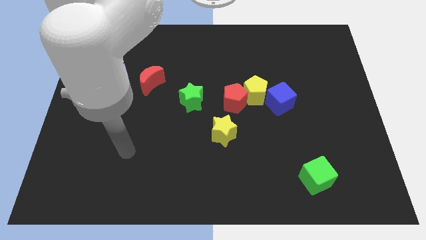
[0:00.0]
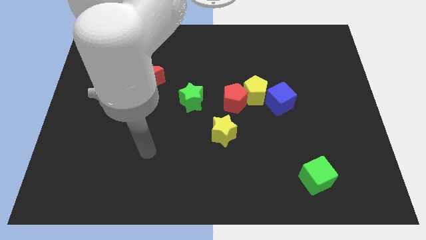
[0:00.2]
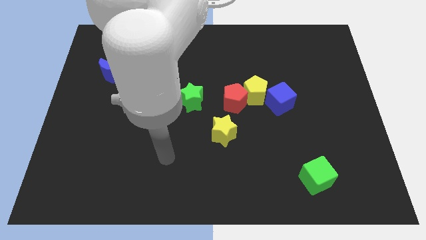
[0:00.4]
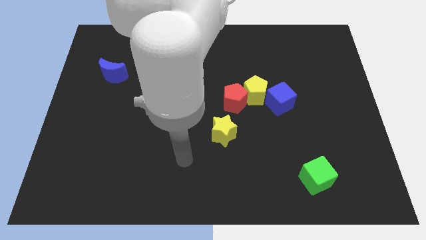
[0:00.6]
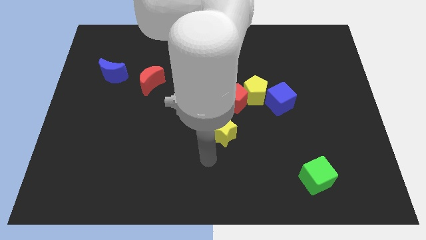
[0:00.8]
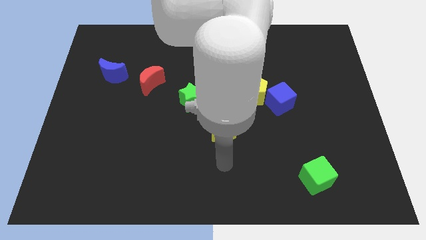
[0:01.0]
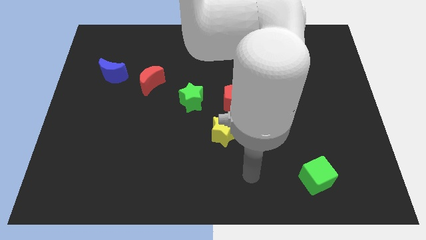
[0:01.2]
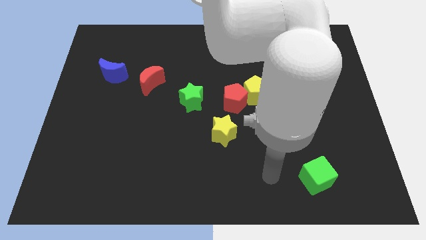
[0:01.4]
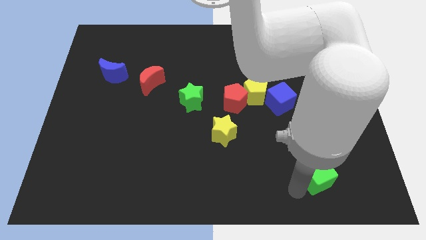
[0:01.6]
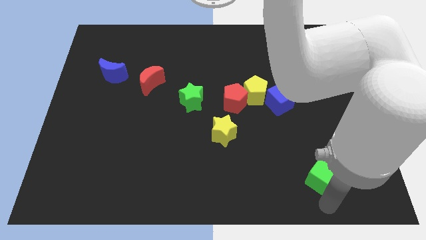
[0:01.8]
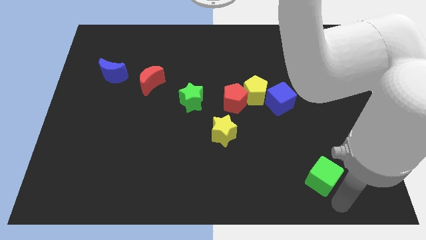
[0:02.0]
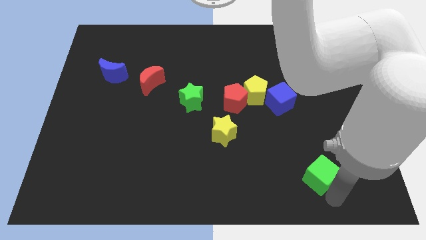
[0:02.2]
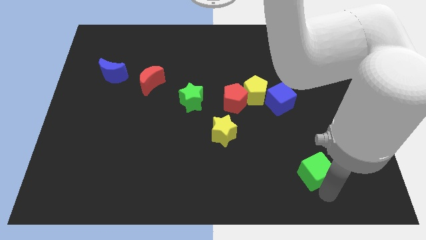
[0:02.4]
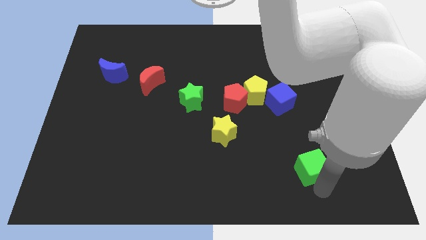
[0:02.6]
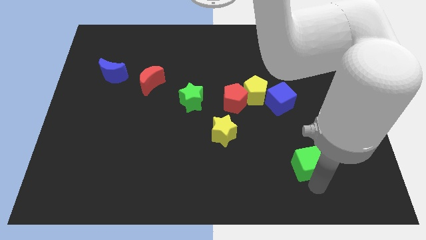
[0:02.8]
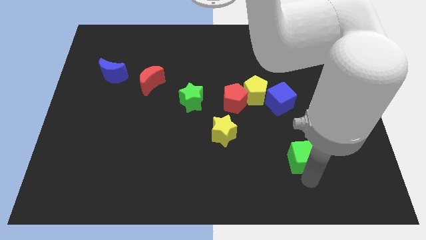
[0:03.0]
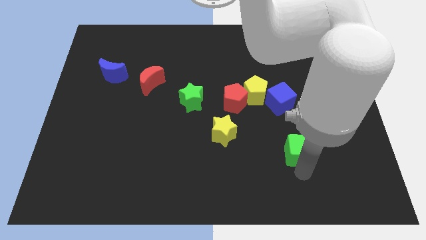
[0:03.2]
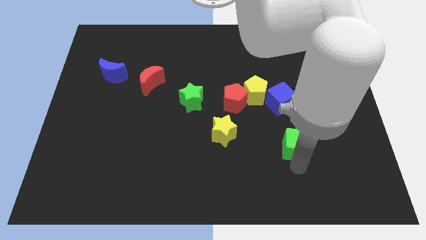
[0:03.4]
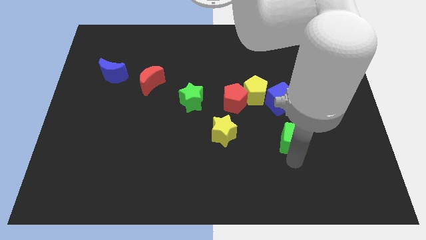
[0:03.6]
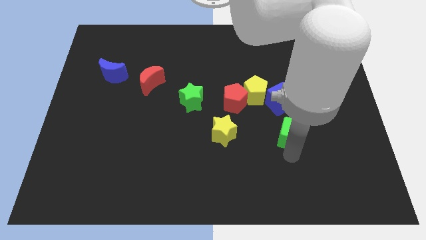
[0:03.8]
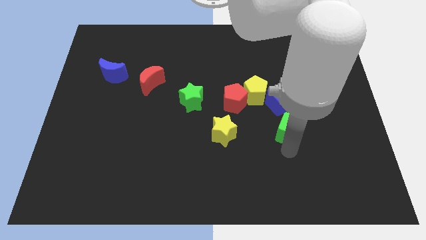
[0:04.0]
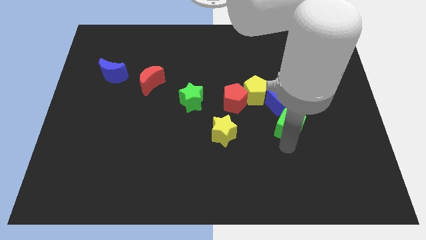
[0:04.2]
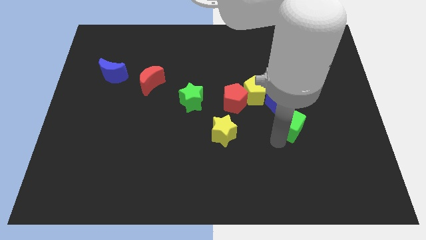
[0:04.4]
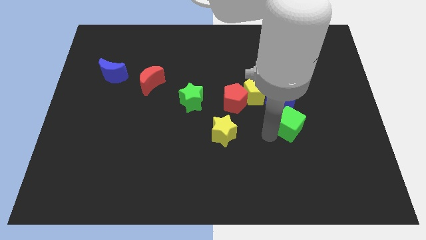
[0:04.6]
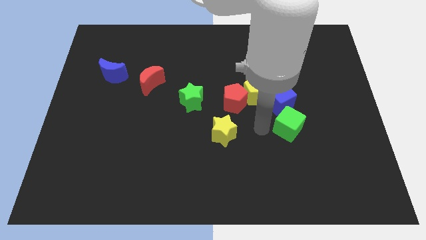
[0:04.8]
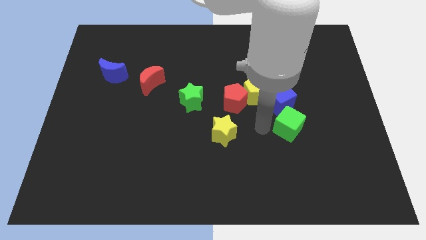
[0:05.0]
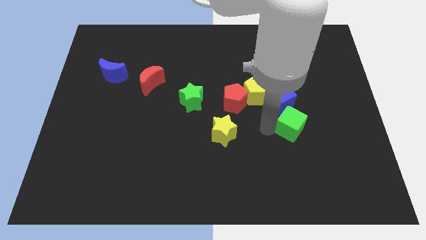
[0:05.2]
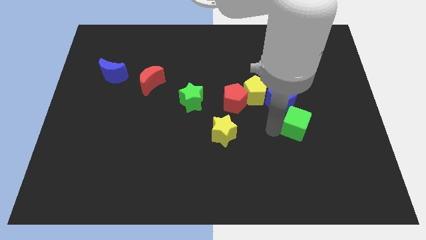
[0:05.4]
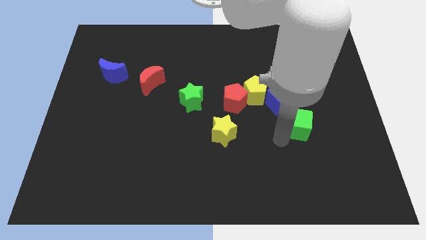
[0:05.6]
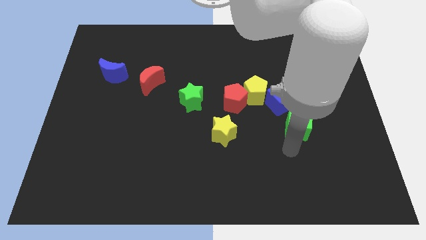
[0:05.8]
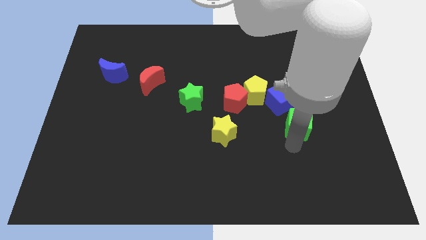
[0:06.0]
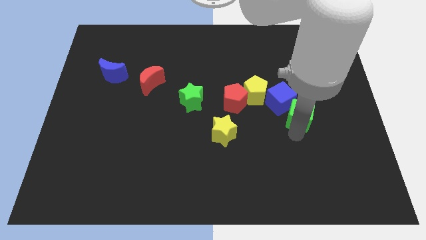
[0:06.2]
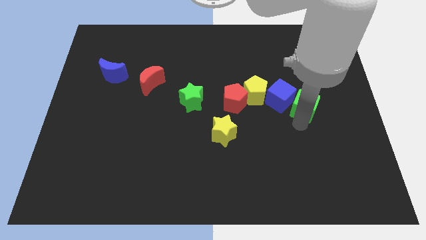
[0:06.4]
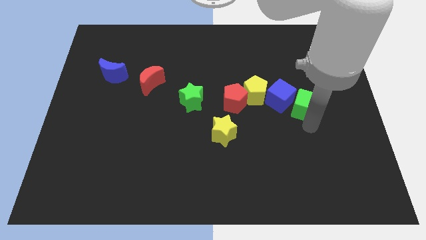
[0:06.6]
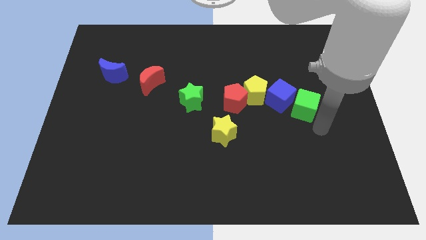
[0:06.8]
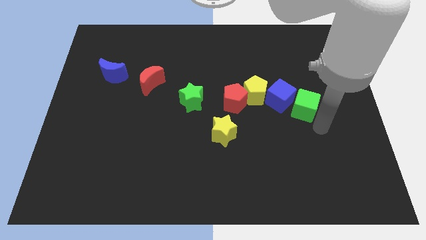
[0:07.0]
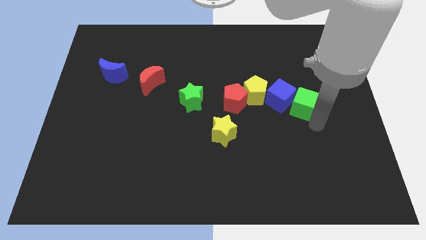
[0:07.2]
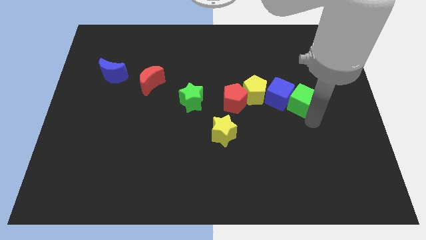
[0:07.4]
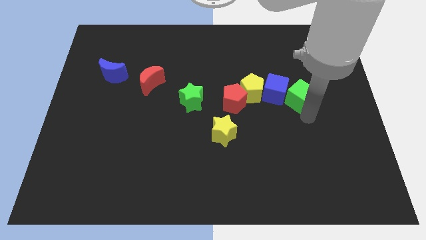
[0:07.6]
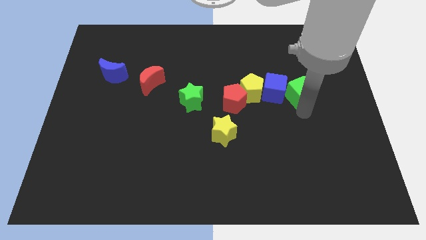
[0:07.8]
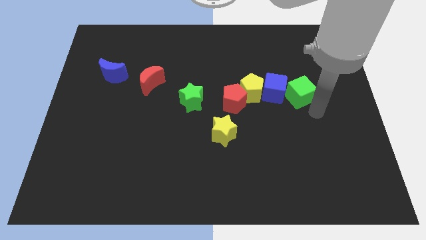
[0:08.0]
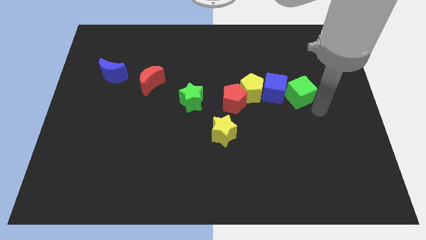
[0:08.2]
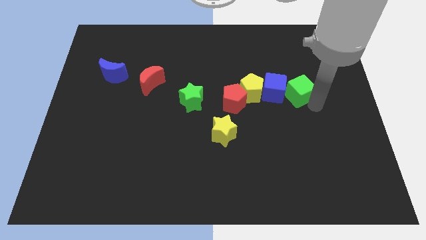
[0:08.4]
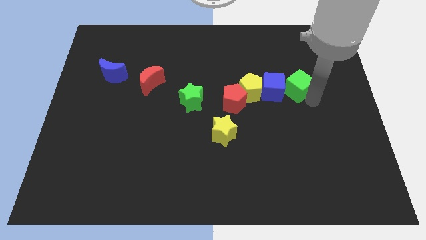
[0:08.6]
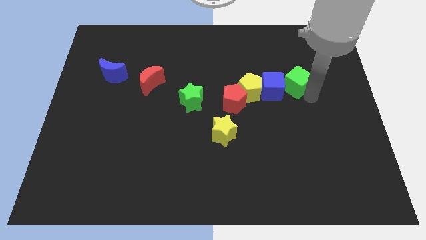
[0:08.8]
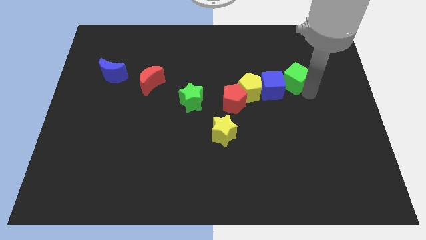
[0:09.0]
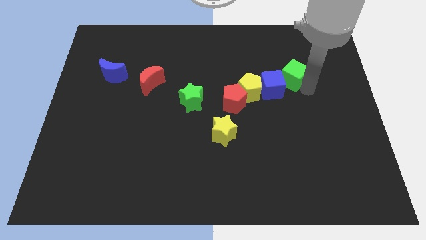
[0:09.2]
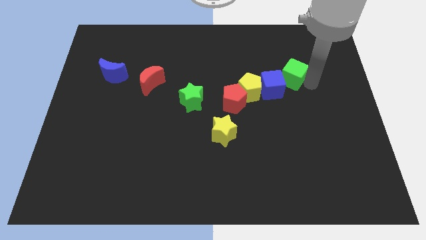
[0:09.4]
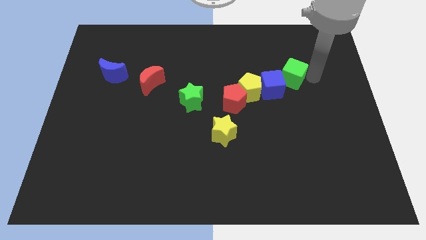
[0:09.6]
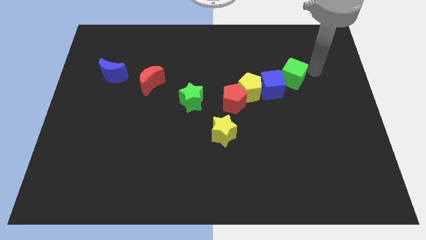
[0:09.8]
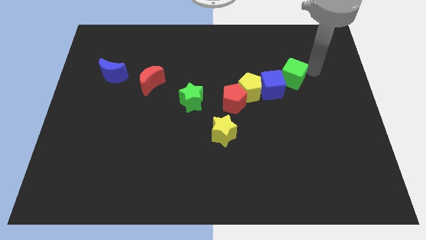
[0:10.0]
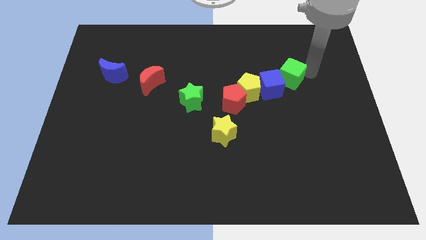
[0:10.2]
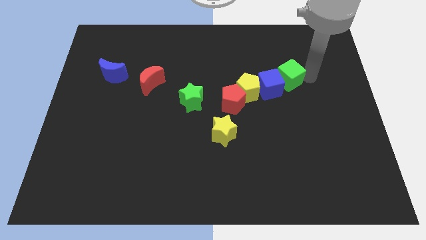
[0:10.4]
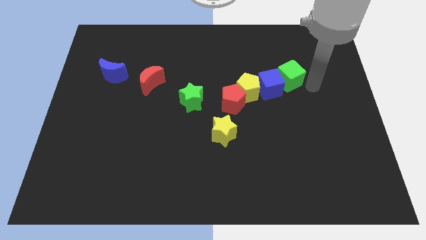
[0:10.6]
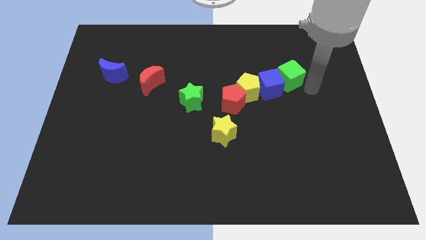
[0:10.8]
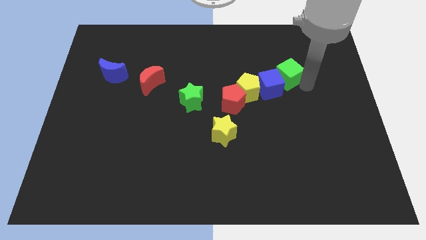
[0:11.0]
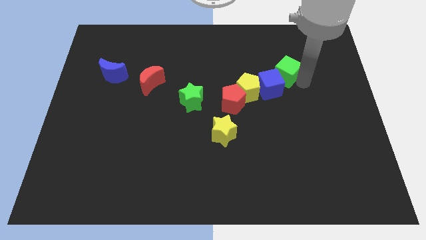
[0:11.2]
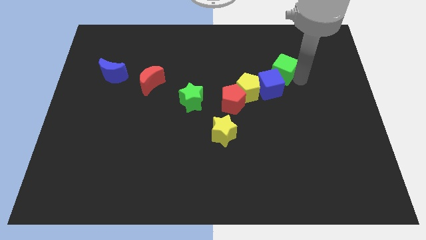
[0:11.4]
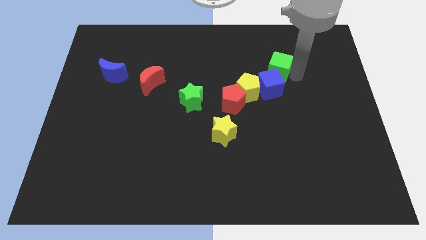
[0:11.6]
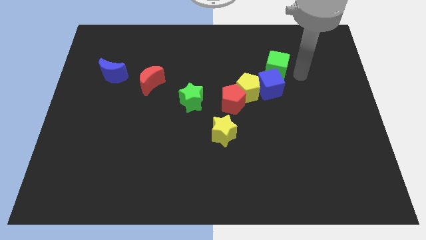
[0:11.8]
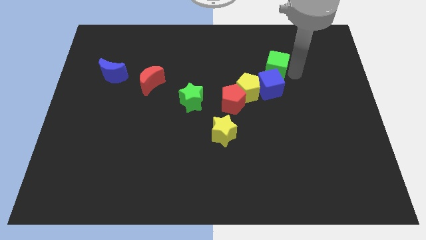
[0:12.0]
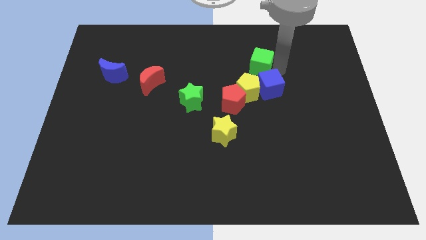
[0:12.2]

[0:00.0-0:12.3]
move the green cube above the yellow pentagon
